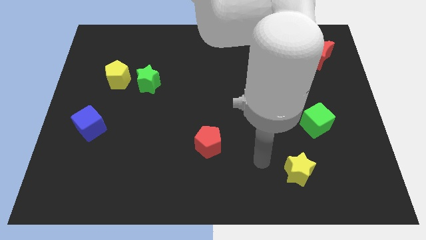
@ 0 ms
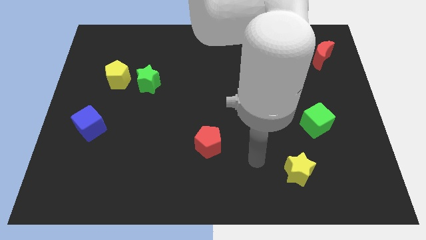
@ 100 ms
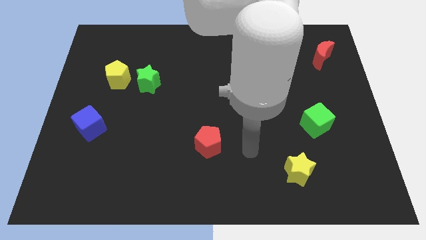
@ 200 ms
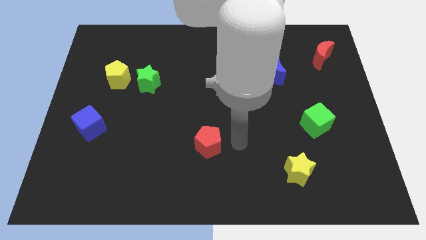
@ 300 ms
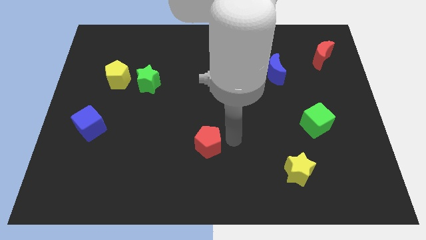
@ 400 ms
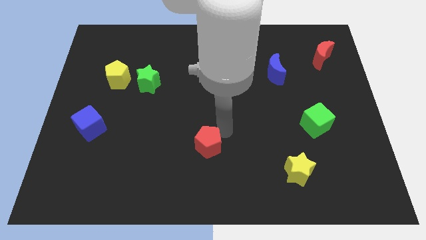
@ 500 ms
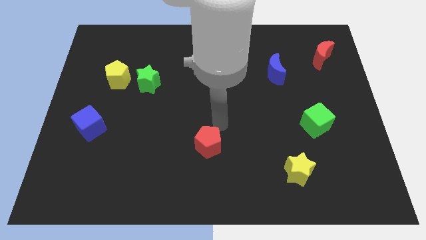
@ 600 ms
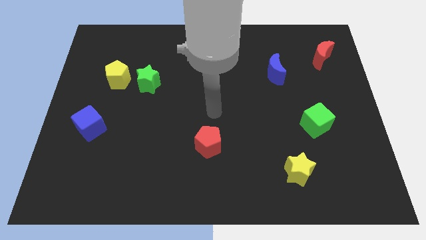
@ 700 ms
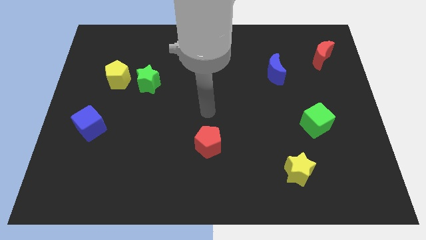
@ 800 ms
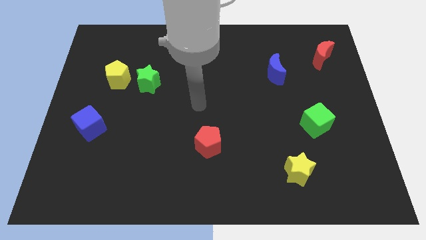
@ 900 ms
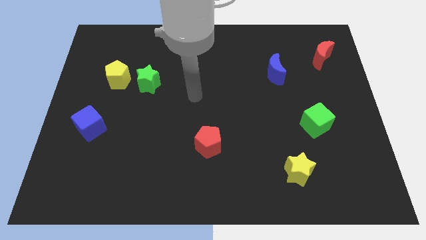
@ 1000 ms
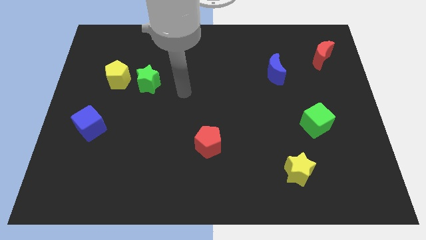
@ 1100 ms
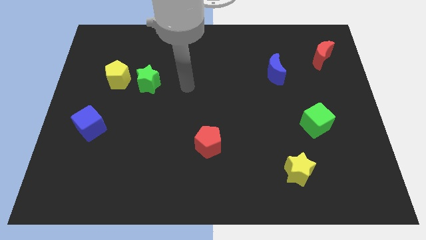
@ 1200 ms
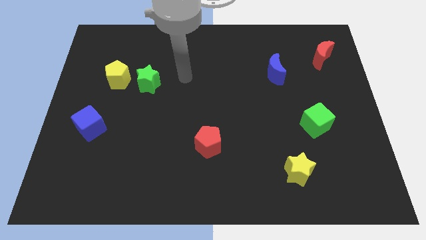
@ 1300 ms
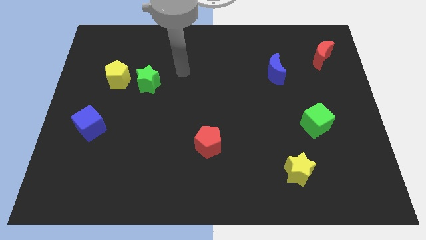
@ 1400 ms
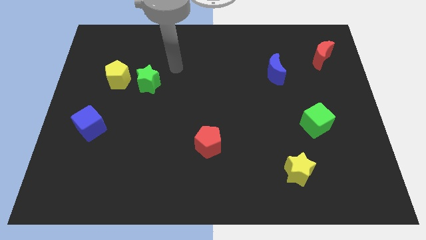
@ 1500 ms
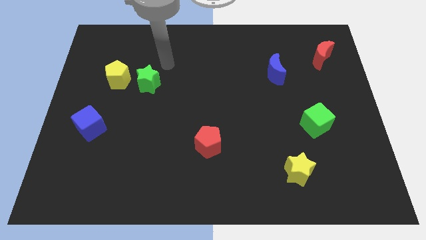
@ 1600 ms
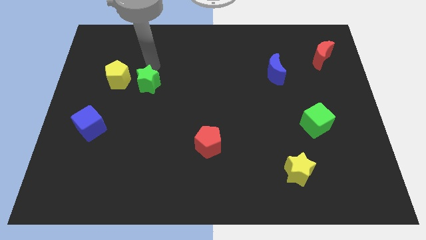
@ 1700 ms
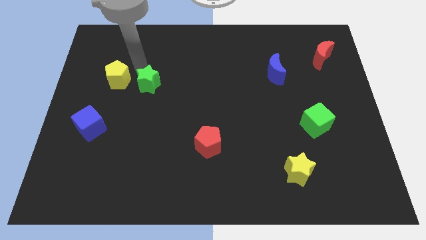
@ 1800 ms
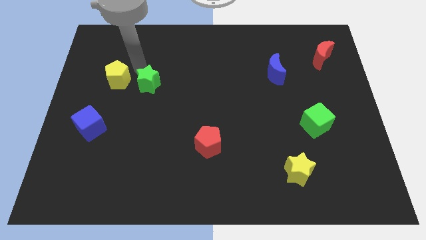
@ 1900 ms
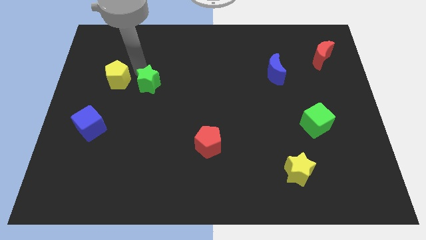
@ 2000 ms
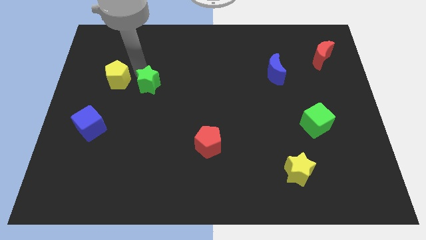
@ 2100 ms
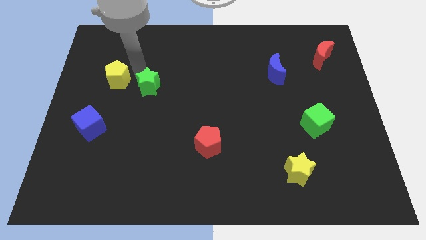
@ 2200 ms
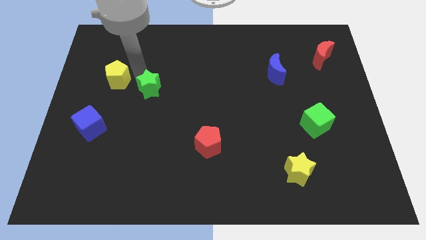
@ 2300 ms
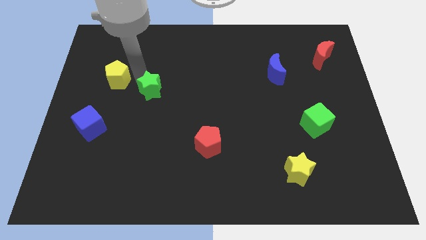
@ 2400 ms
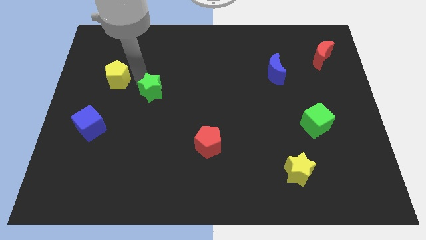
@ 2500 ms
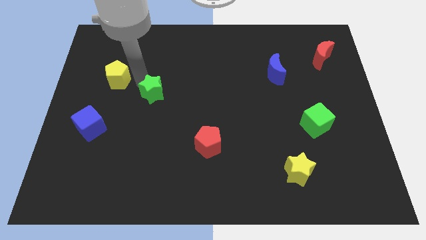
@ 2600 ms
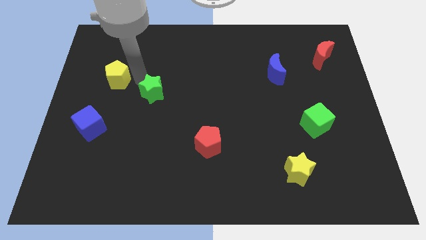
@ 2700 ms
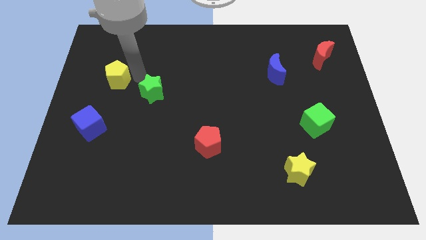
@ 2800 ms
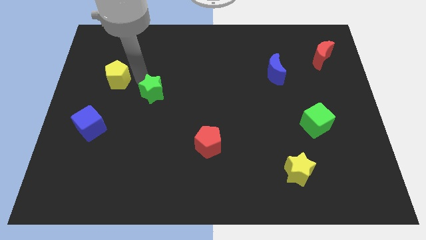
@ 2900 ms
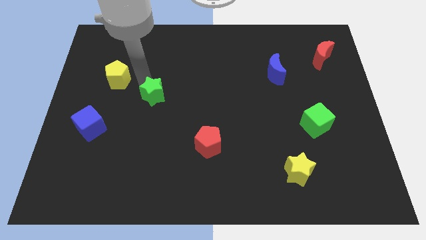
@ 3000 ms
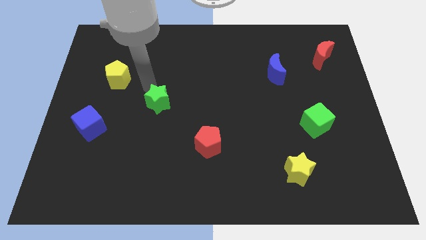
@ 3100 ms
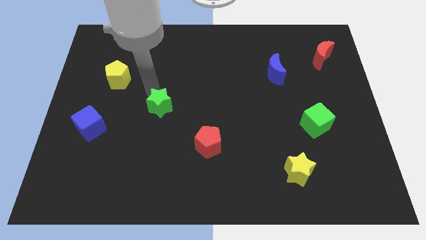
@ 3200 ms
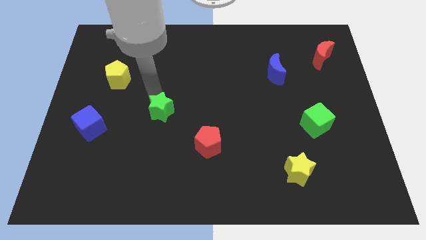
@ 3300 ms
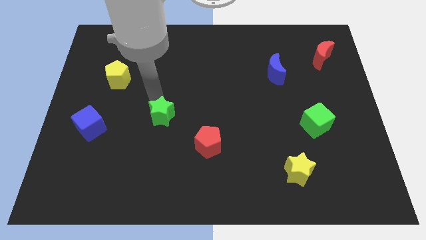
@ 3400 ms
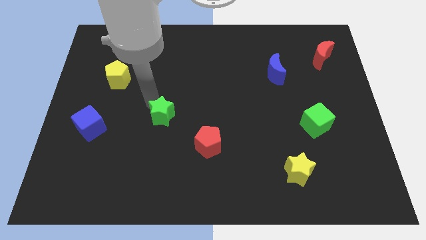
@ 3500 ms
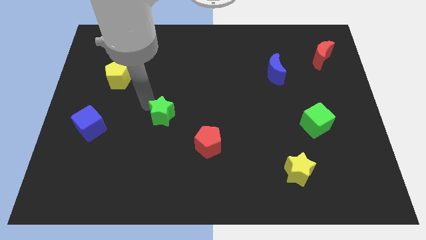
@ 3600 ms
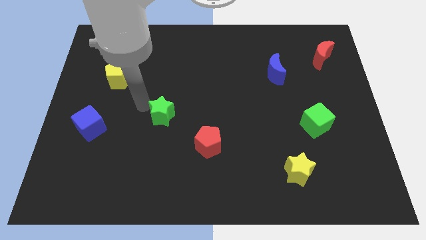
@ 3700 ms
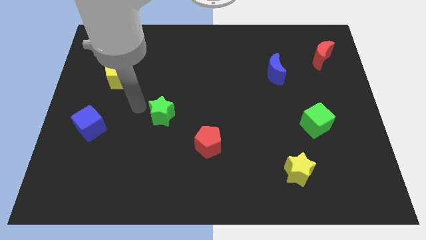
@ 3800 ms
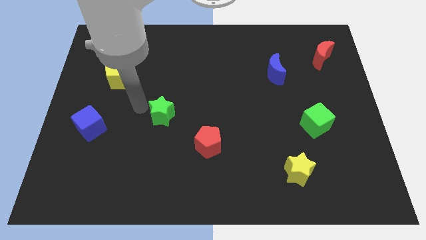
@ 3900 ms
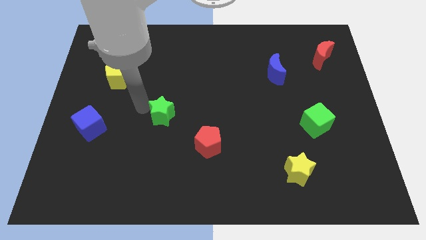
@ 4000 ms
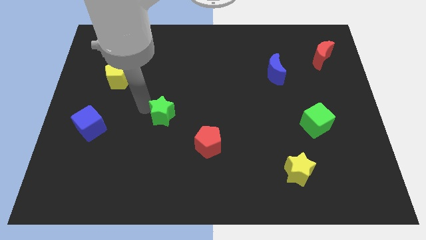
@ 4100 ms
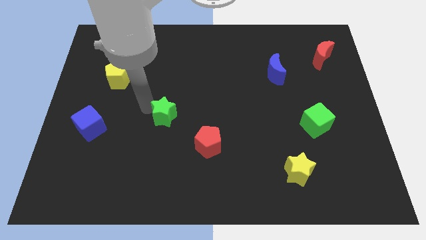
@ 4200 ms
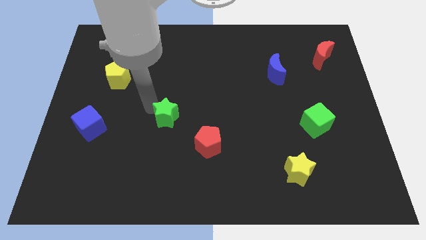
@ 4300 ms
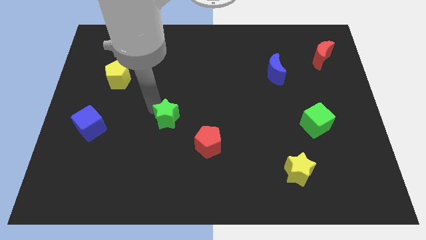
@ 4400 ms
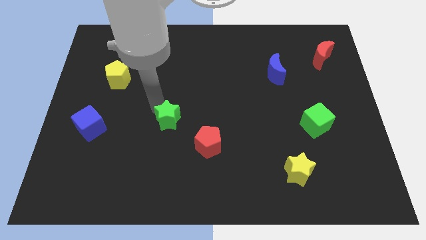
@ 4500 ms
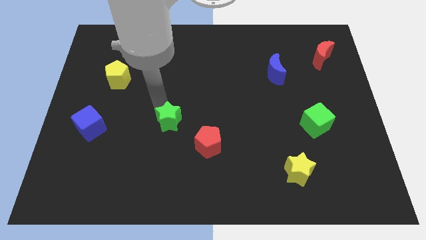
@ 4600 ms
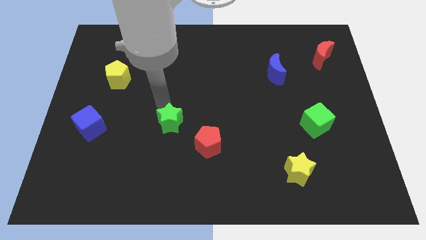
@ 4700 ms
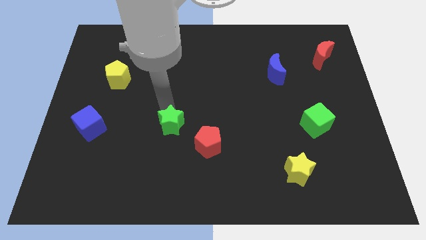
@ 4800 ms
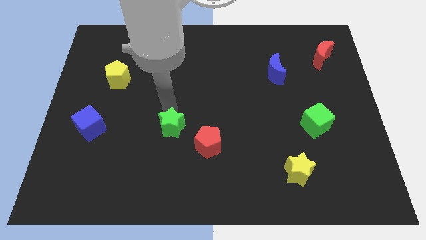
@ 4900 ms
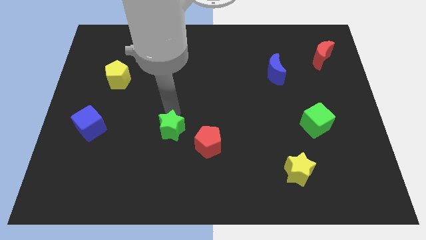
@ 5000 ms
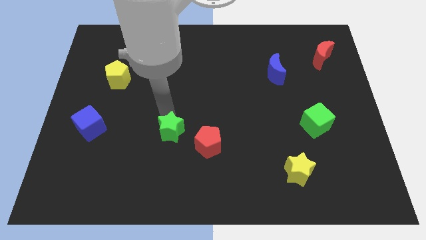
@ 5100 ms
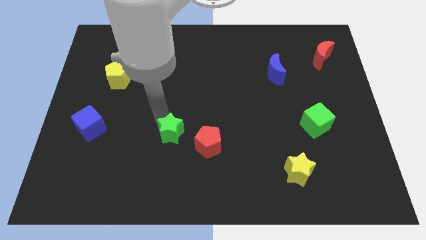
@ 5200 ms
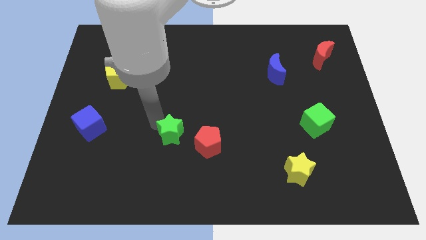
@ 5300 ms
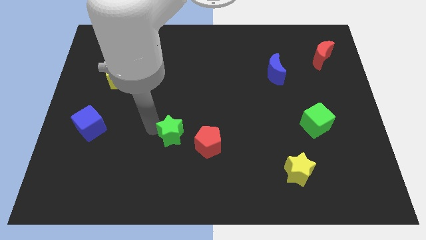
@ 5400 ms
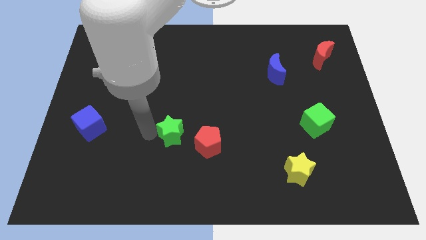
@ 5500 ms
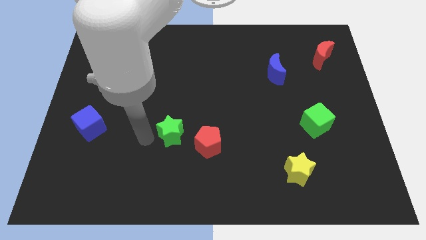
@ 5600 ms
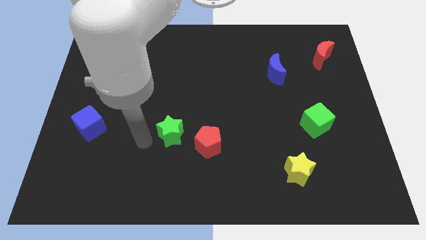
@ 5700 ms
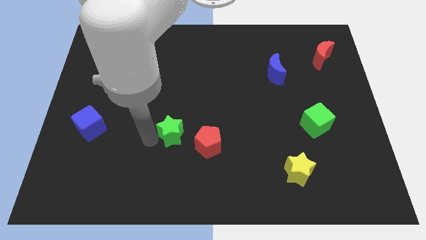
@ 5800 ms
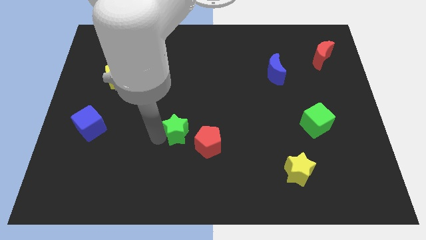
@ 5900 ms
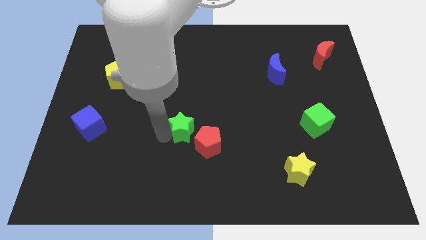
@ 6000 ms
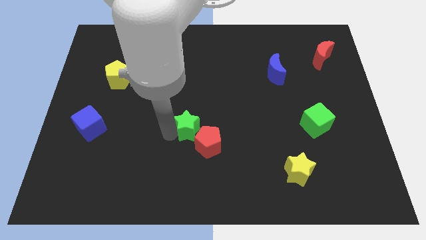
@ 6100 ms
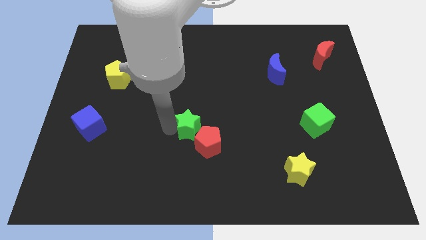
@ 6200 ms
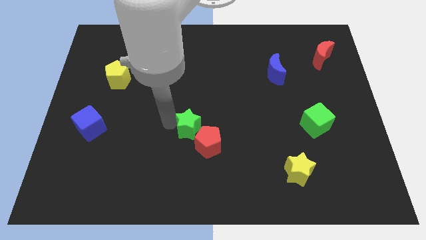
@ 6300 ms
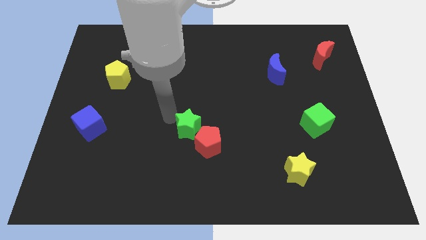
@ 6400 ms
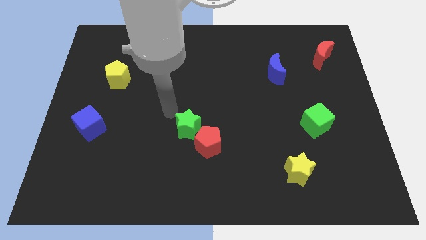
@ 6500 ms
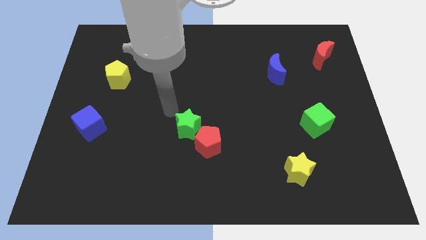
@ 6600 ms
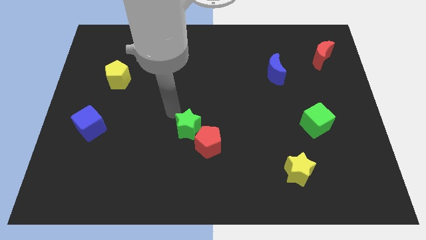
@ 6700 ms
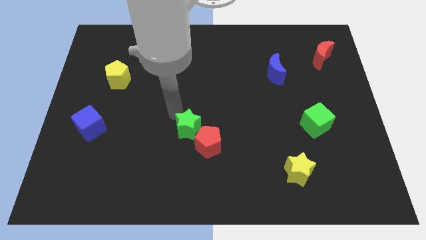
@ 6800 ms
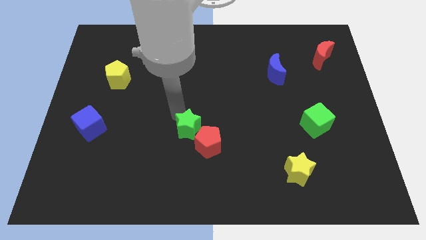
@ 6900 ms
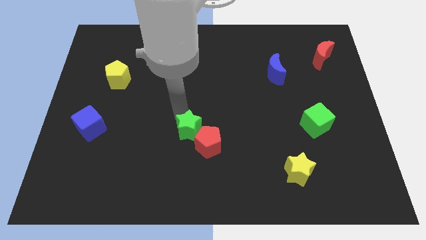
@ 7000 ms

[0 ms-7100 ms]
put the green star next to the red pentagon
